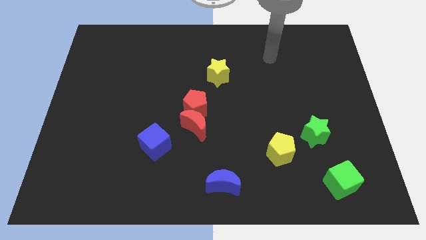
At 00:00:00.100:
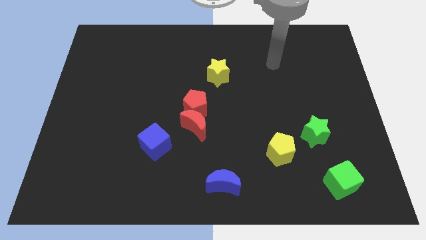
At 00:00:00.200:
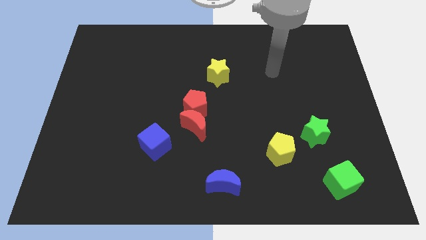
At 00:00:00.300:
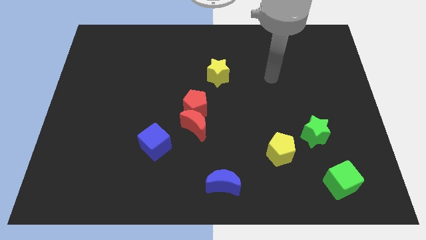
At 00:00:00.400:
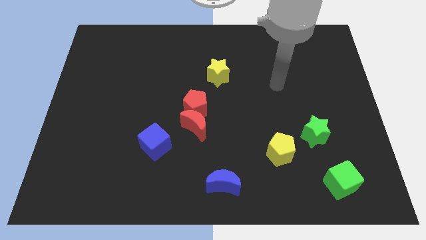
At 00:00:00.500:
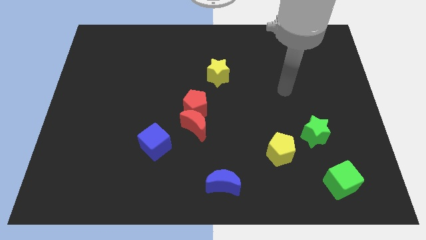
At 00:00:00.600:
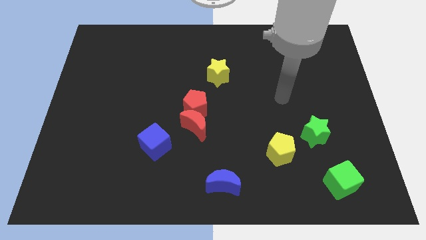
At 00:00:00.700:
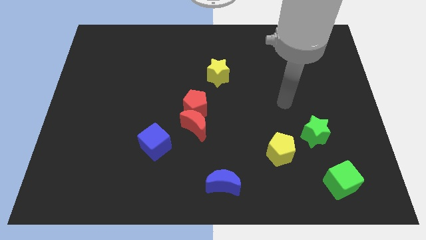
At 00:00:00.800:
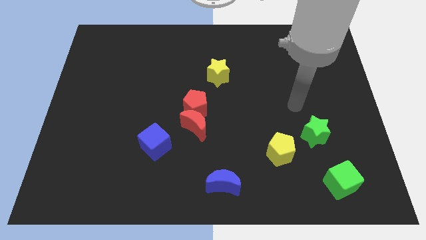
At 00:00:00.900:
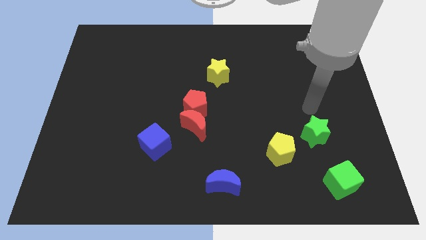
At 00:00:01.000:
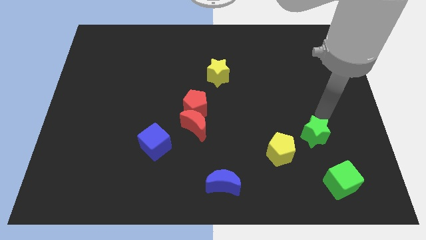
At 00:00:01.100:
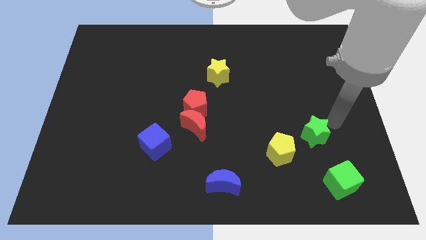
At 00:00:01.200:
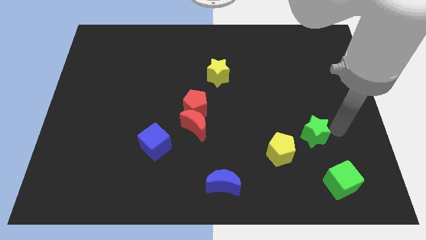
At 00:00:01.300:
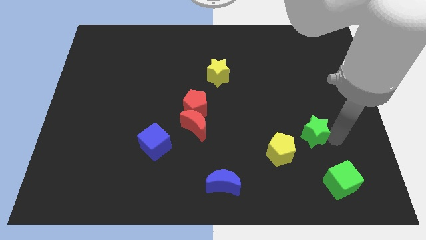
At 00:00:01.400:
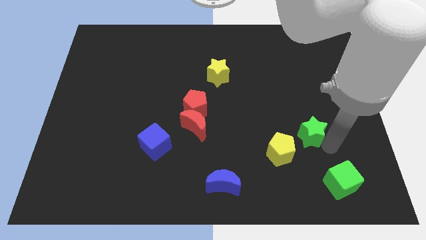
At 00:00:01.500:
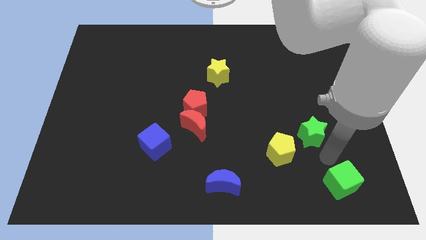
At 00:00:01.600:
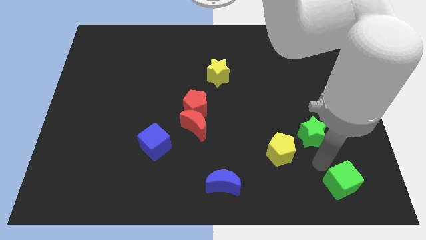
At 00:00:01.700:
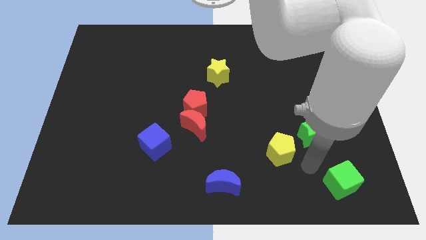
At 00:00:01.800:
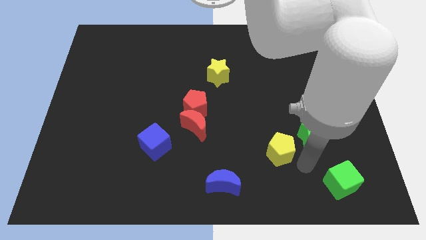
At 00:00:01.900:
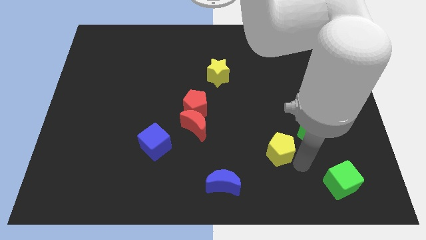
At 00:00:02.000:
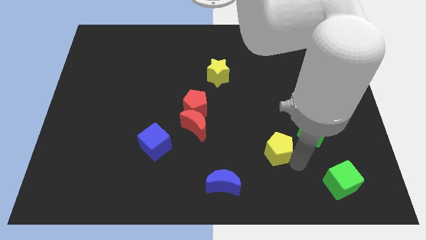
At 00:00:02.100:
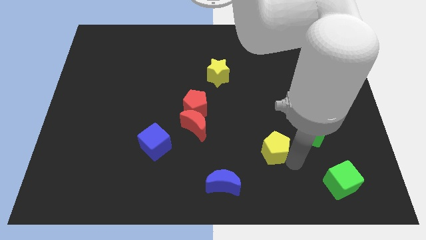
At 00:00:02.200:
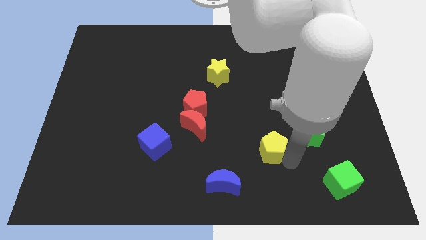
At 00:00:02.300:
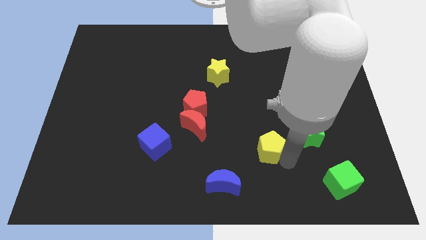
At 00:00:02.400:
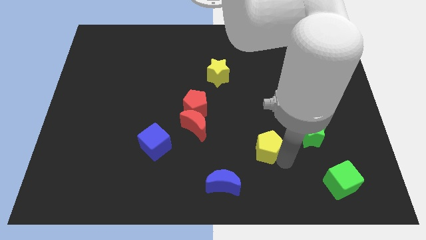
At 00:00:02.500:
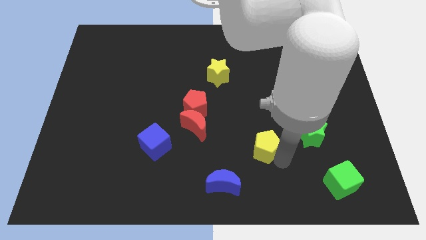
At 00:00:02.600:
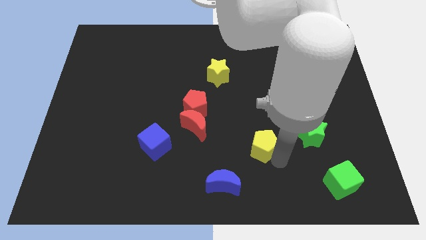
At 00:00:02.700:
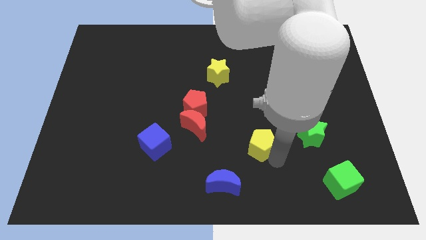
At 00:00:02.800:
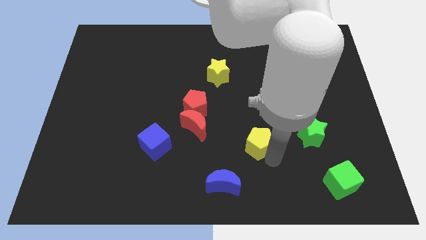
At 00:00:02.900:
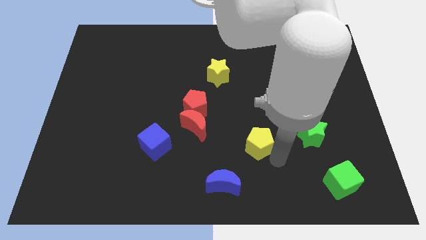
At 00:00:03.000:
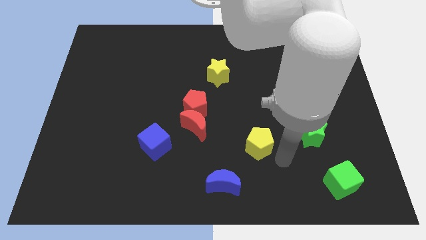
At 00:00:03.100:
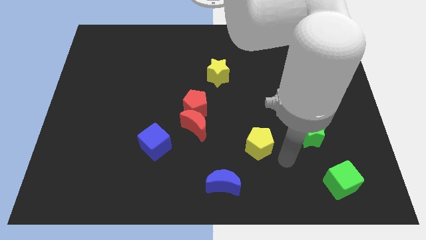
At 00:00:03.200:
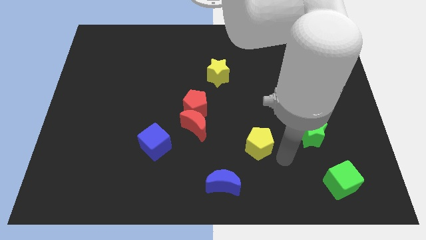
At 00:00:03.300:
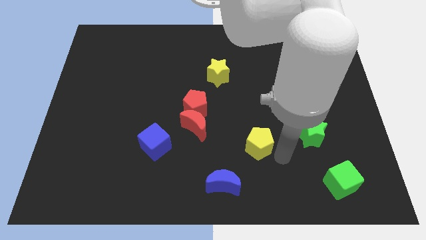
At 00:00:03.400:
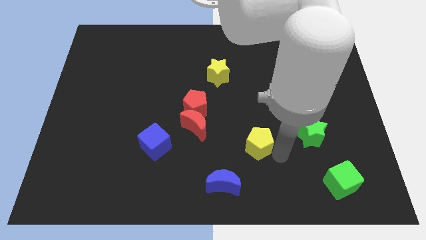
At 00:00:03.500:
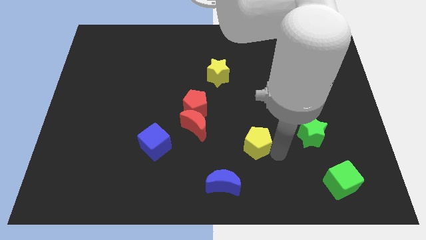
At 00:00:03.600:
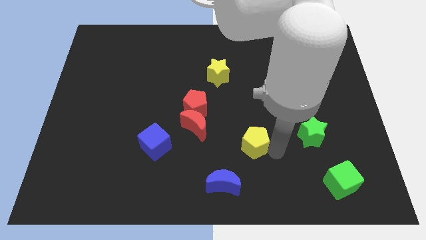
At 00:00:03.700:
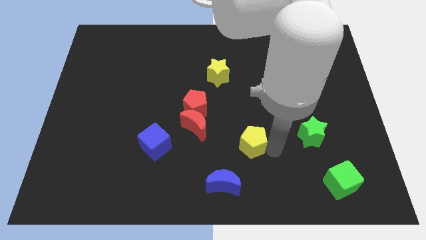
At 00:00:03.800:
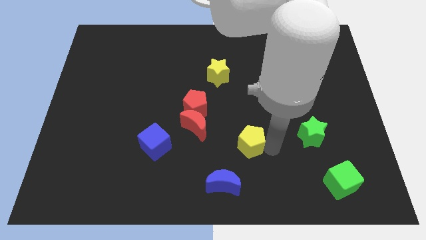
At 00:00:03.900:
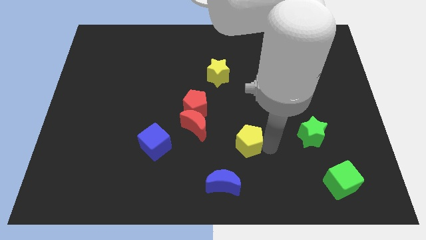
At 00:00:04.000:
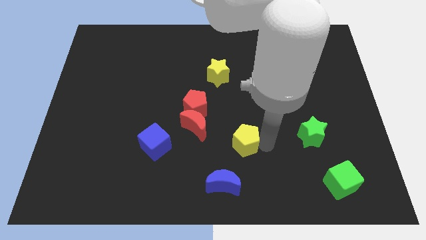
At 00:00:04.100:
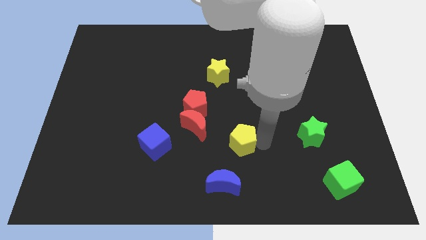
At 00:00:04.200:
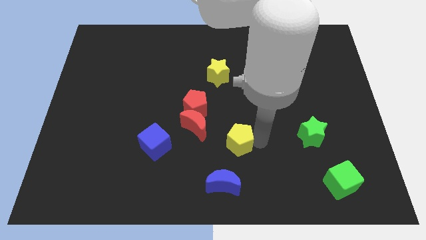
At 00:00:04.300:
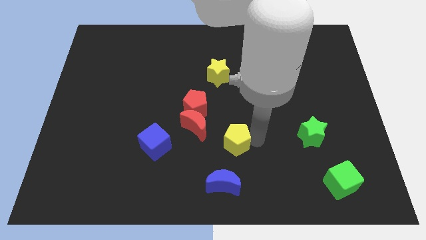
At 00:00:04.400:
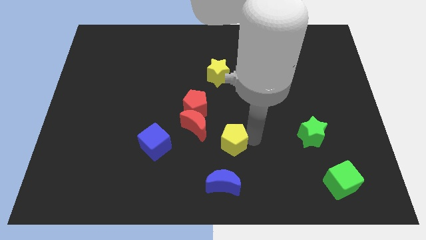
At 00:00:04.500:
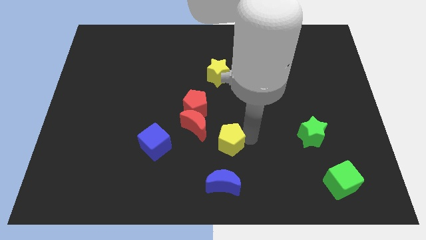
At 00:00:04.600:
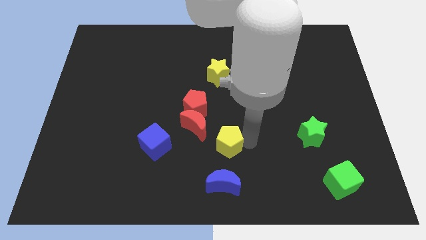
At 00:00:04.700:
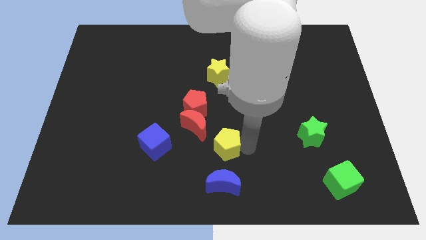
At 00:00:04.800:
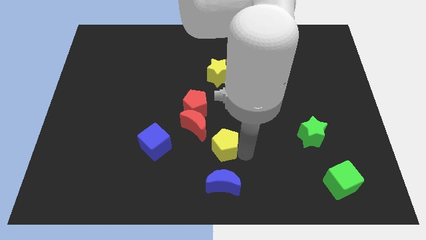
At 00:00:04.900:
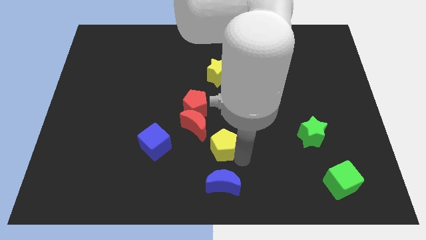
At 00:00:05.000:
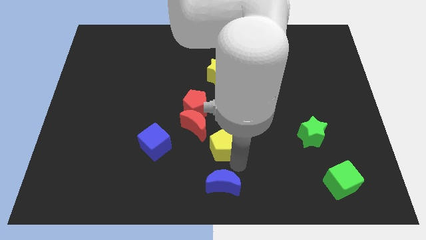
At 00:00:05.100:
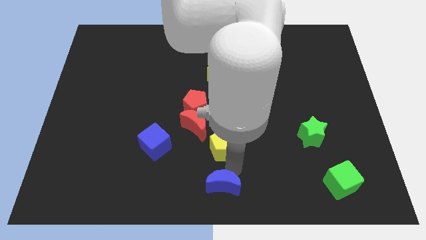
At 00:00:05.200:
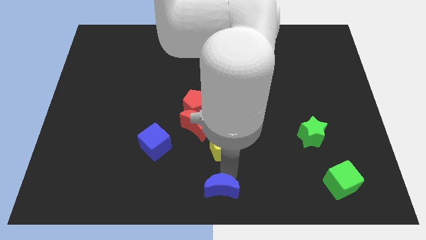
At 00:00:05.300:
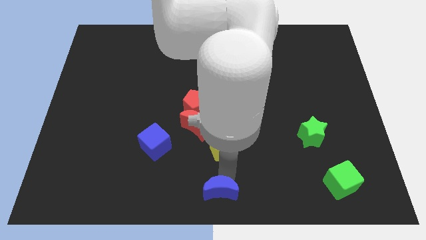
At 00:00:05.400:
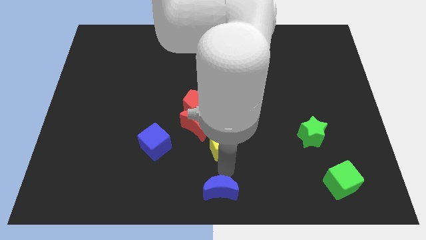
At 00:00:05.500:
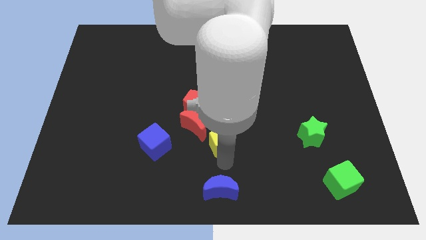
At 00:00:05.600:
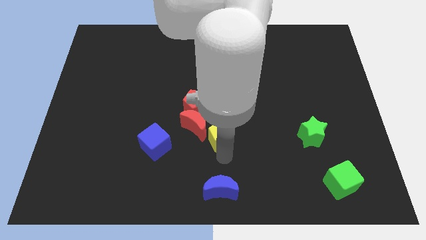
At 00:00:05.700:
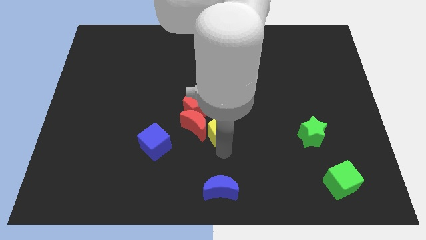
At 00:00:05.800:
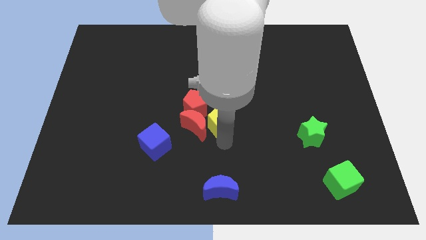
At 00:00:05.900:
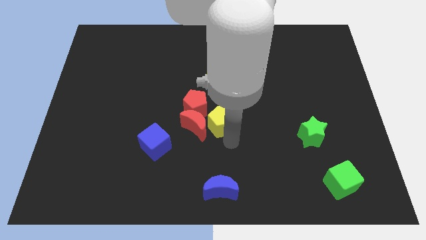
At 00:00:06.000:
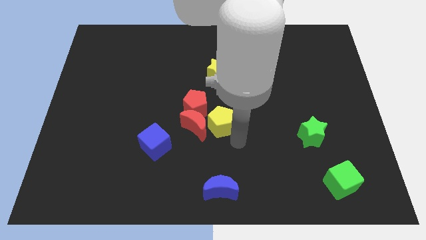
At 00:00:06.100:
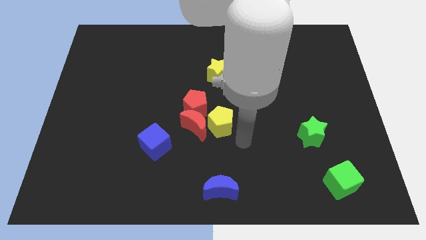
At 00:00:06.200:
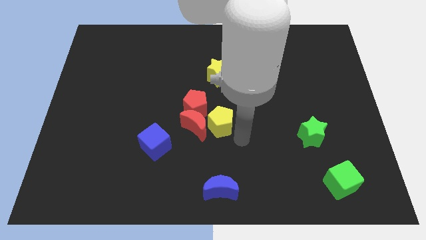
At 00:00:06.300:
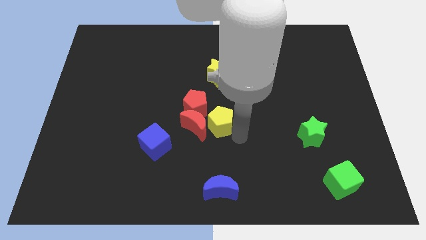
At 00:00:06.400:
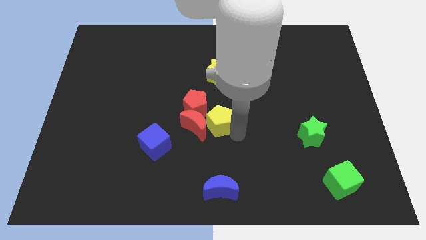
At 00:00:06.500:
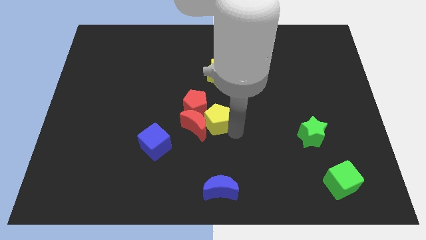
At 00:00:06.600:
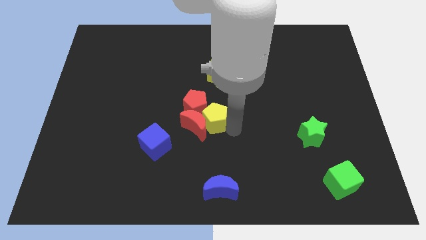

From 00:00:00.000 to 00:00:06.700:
move the yellow pentagon next to the red pentagon
